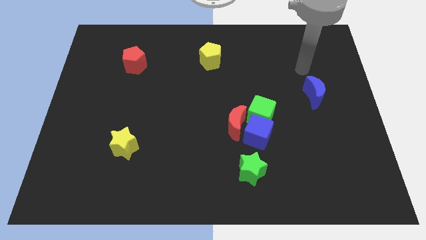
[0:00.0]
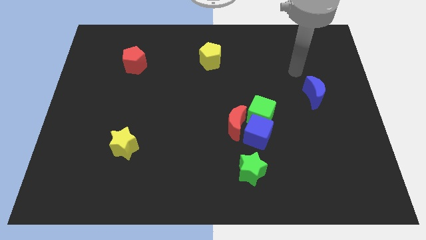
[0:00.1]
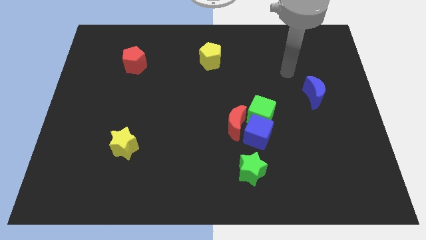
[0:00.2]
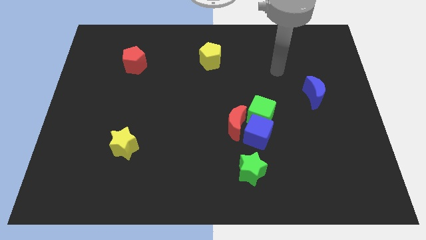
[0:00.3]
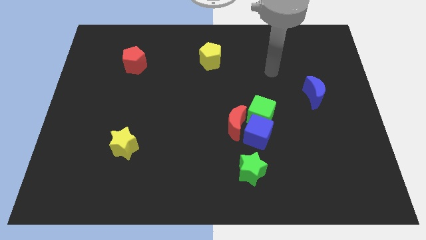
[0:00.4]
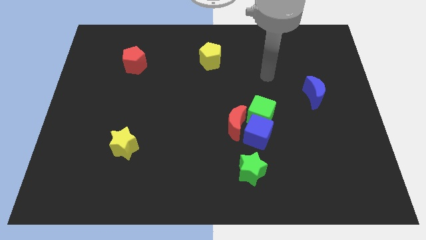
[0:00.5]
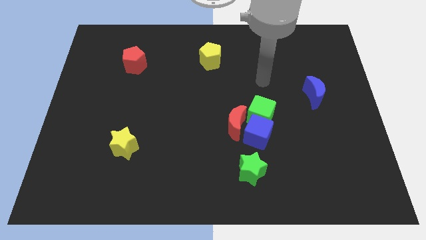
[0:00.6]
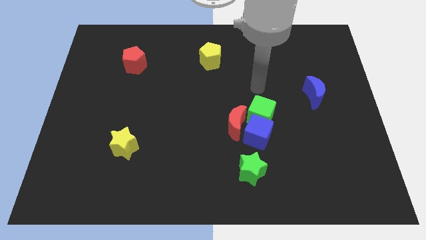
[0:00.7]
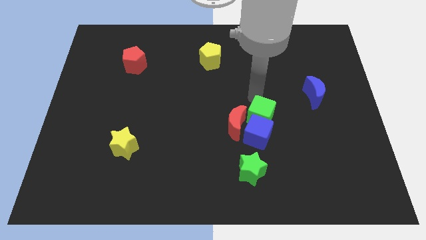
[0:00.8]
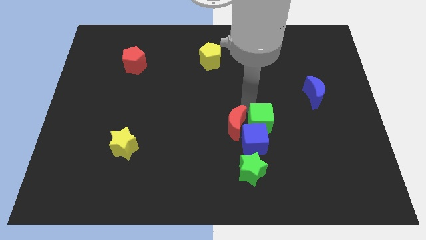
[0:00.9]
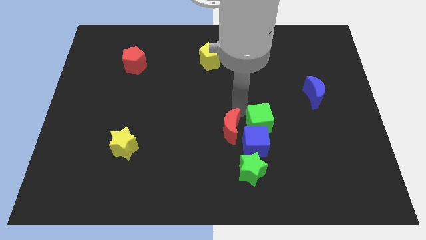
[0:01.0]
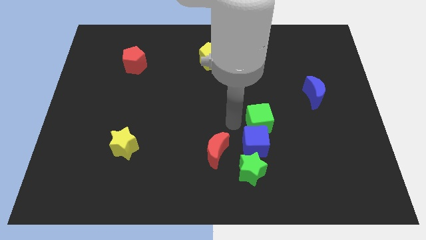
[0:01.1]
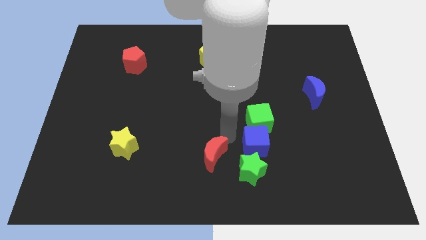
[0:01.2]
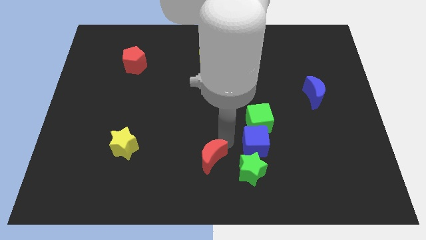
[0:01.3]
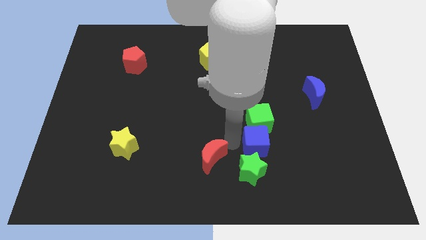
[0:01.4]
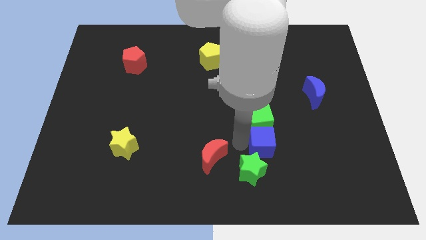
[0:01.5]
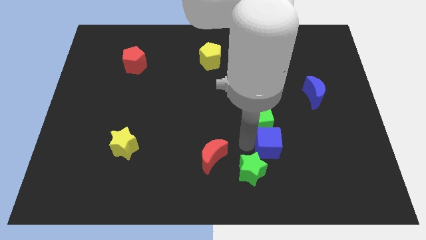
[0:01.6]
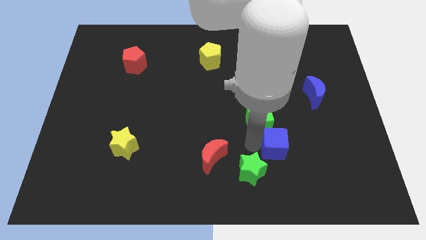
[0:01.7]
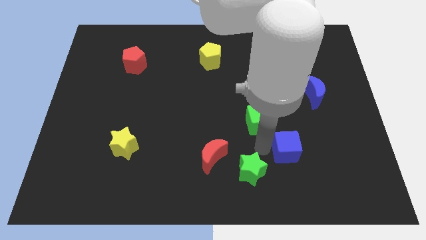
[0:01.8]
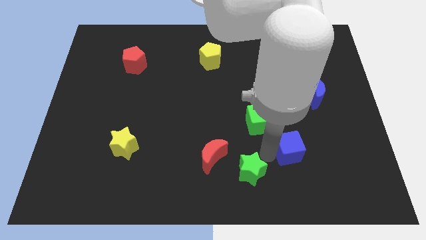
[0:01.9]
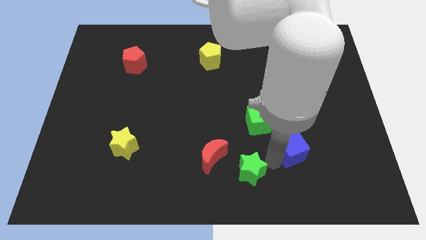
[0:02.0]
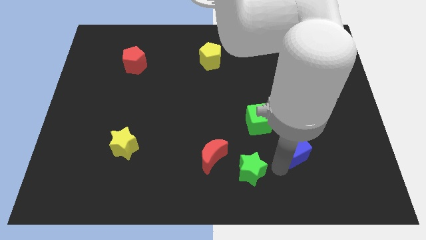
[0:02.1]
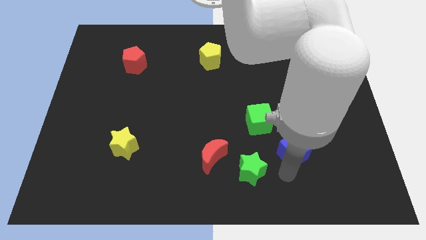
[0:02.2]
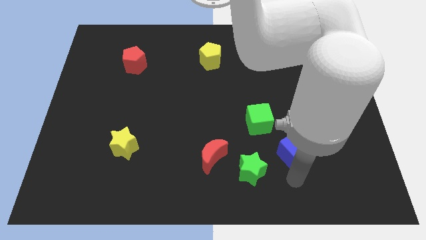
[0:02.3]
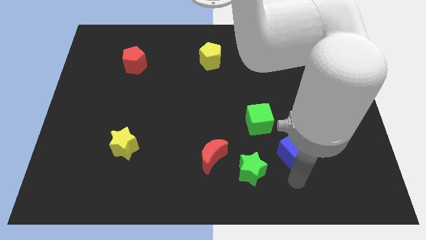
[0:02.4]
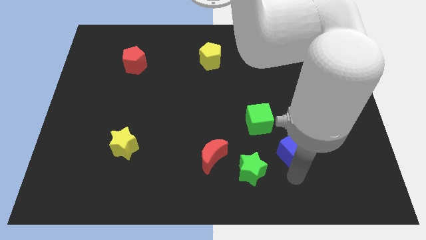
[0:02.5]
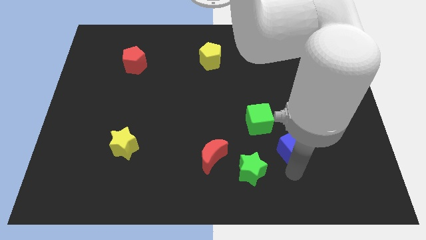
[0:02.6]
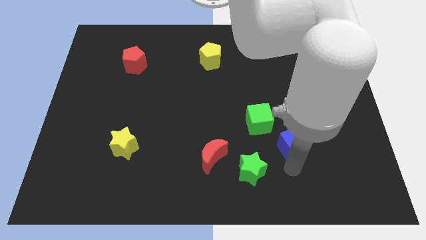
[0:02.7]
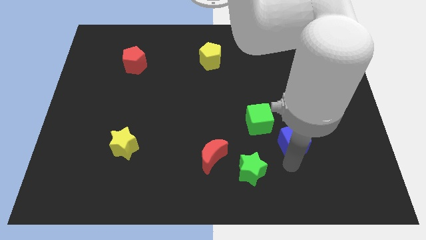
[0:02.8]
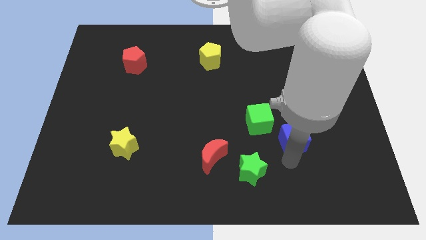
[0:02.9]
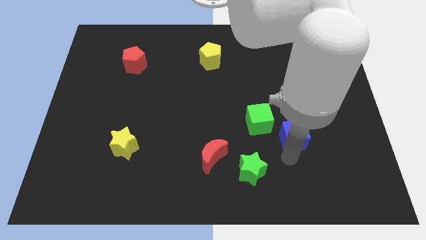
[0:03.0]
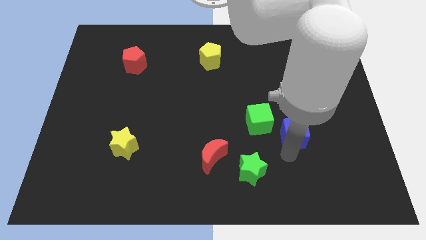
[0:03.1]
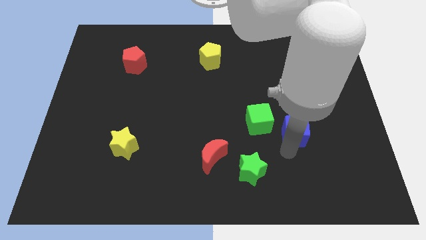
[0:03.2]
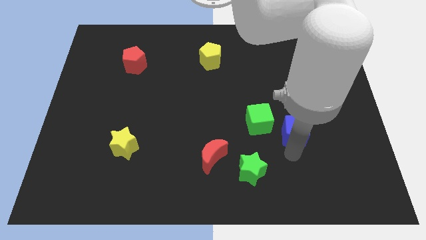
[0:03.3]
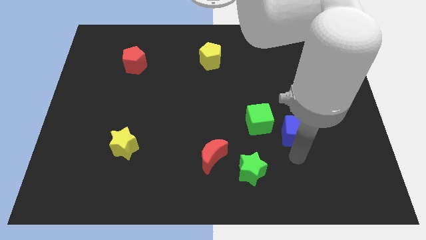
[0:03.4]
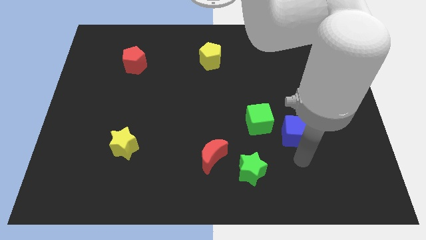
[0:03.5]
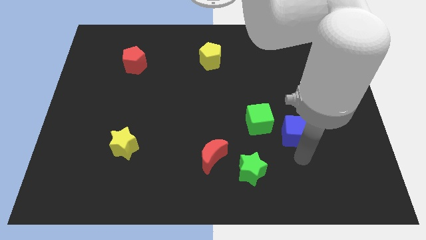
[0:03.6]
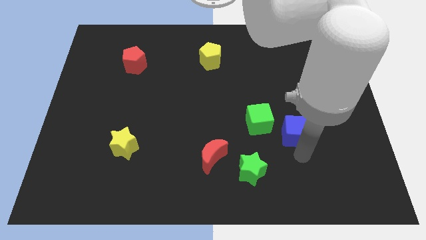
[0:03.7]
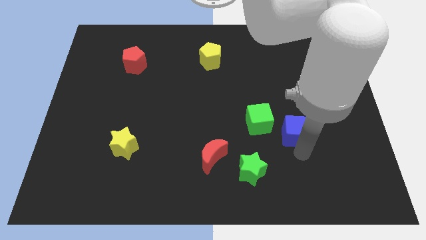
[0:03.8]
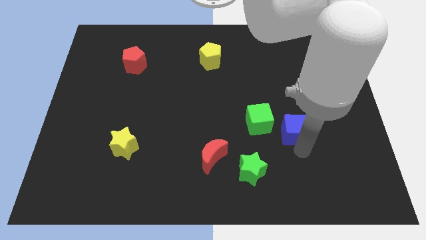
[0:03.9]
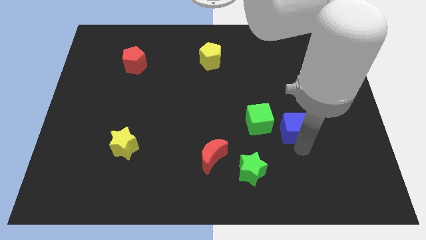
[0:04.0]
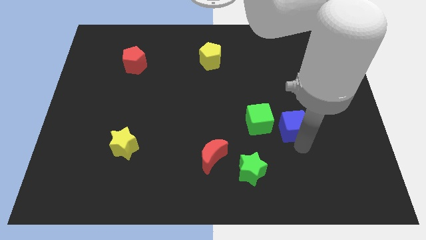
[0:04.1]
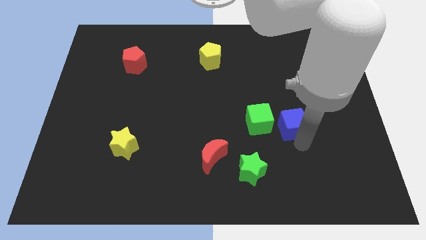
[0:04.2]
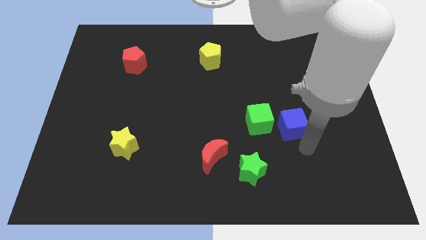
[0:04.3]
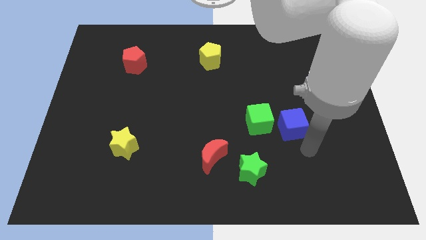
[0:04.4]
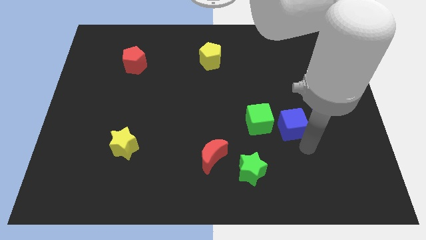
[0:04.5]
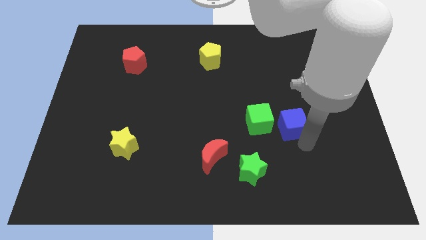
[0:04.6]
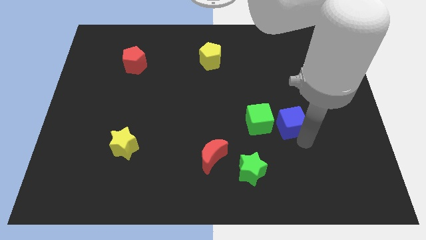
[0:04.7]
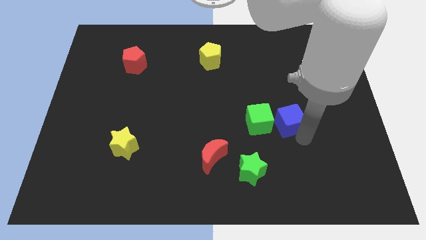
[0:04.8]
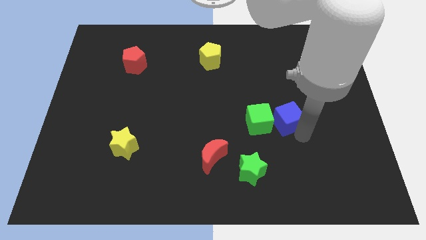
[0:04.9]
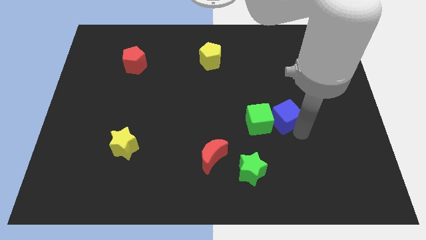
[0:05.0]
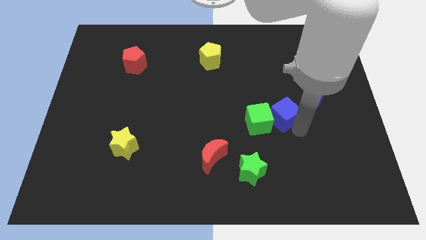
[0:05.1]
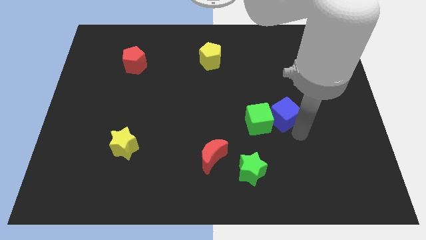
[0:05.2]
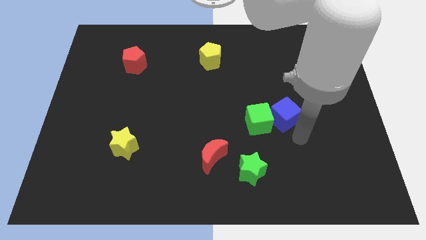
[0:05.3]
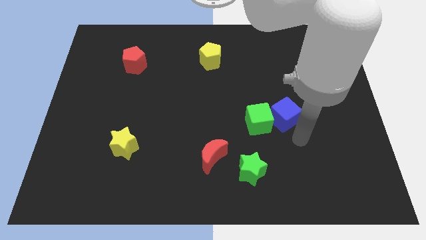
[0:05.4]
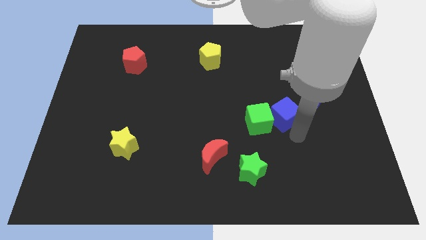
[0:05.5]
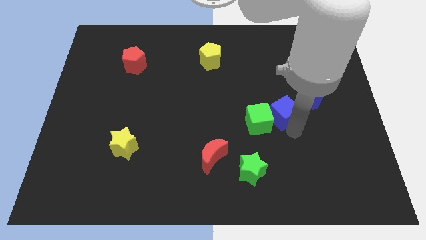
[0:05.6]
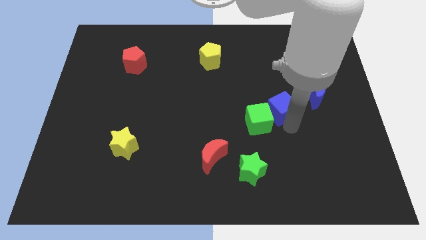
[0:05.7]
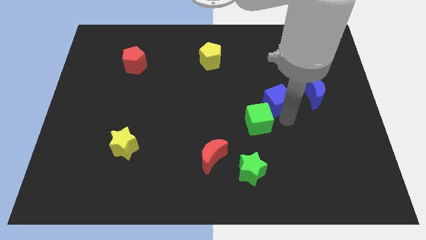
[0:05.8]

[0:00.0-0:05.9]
put the blue cube to the top of the green cube

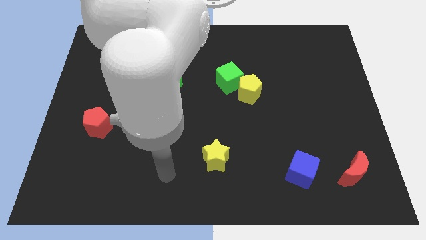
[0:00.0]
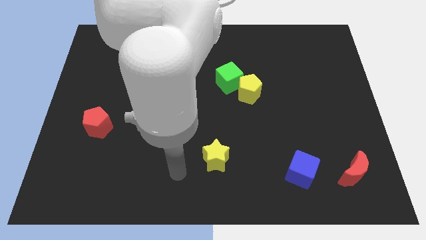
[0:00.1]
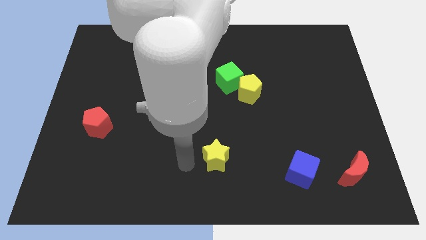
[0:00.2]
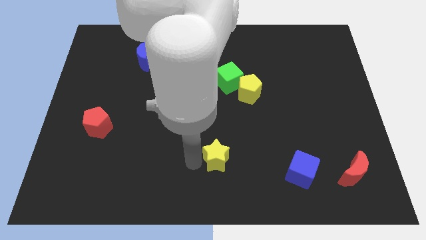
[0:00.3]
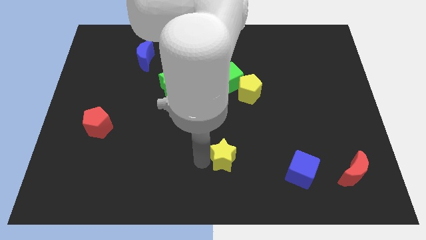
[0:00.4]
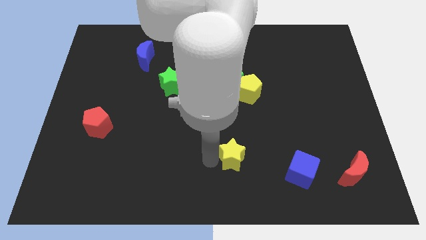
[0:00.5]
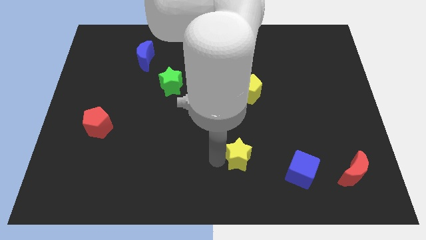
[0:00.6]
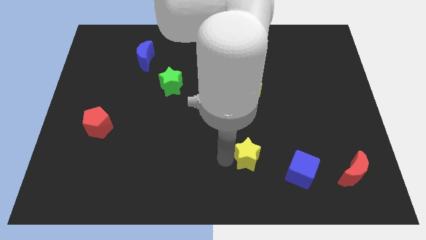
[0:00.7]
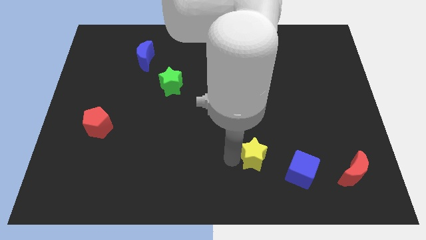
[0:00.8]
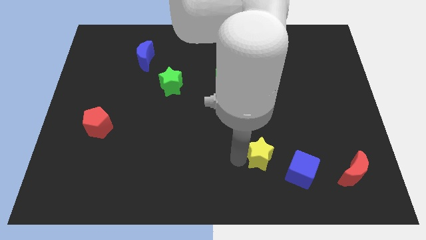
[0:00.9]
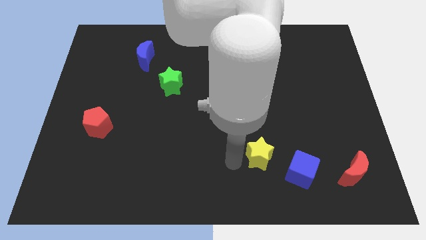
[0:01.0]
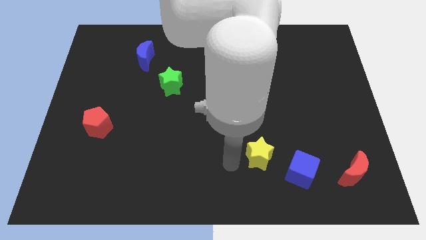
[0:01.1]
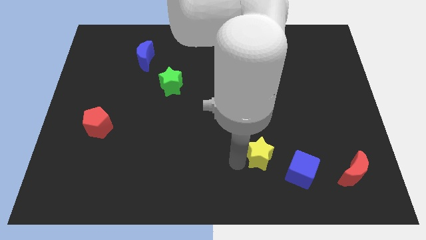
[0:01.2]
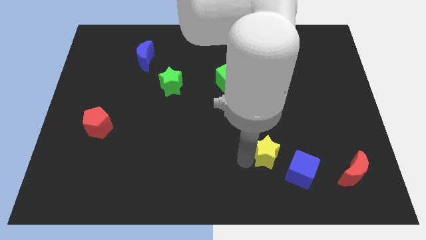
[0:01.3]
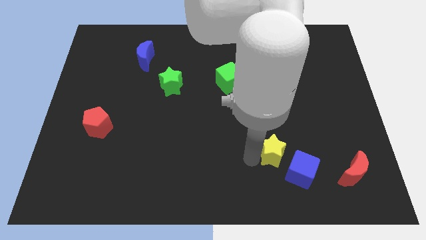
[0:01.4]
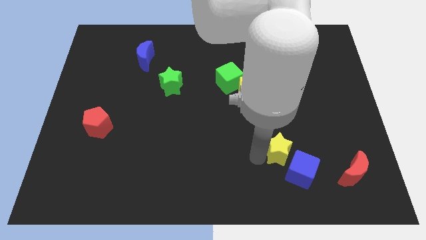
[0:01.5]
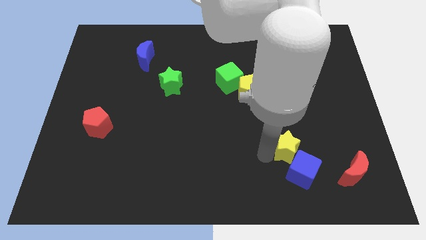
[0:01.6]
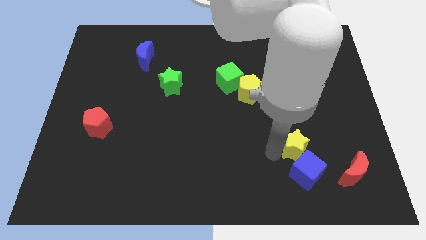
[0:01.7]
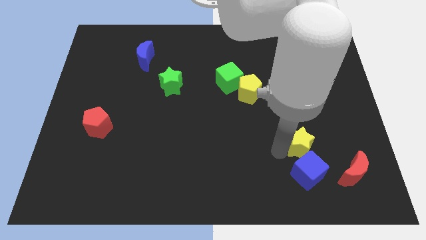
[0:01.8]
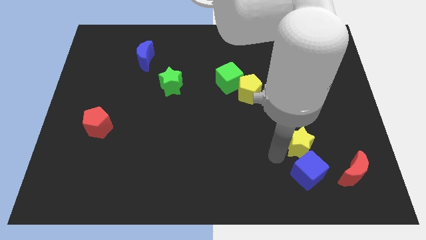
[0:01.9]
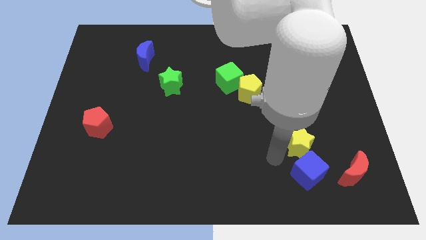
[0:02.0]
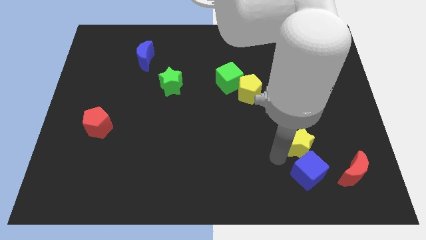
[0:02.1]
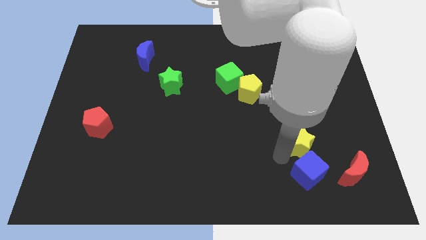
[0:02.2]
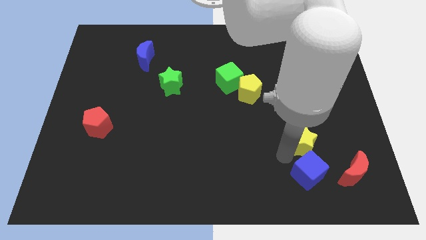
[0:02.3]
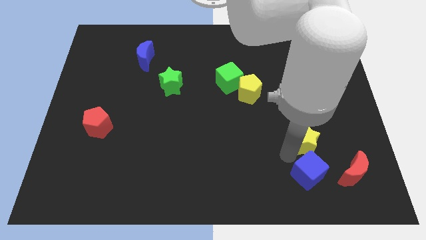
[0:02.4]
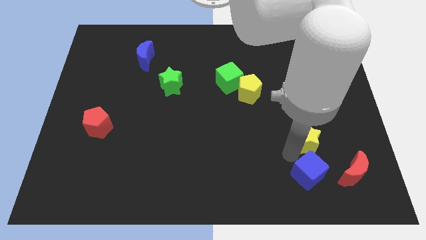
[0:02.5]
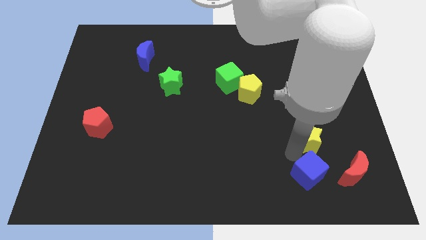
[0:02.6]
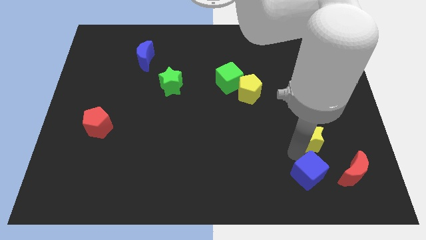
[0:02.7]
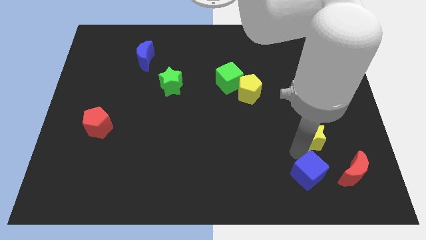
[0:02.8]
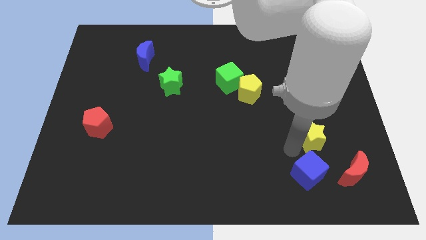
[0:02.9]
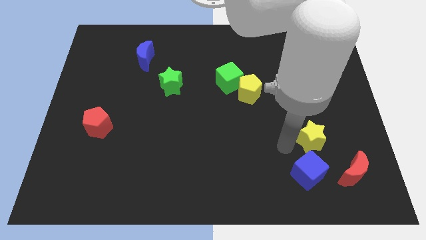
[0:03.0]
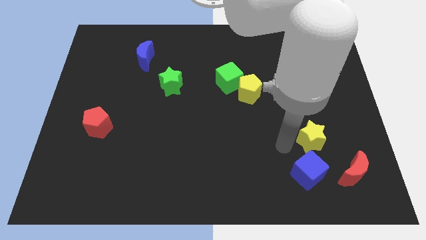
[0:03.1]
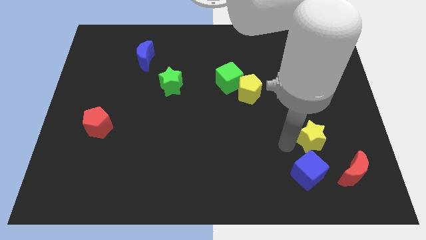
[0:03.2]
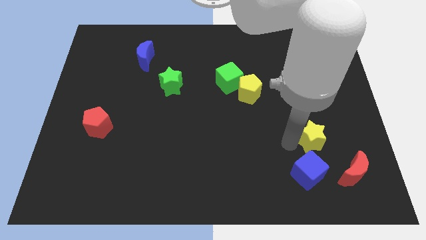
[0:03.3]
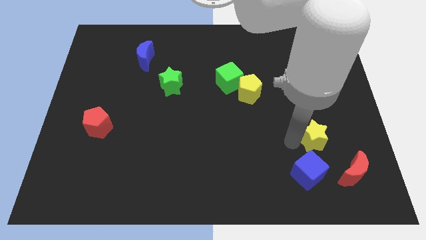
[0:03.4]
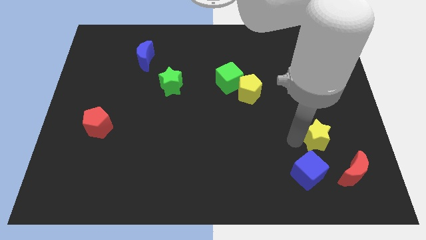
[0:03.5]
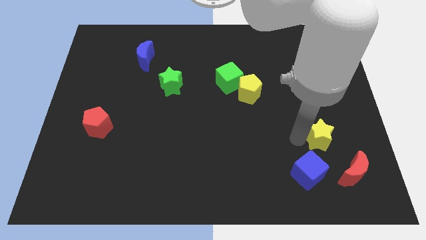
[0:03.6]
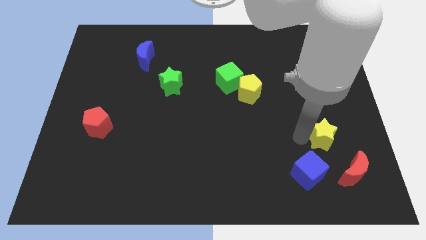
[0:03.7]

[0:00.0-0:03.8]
slide the yellow star to the top of the red moon
